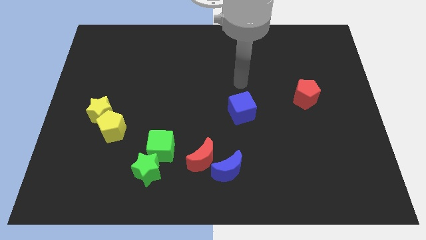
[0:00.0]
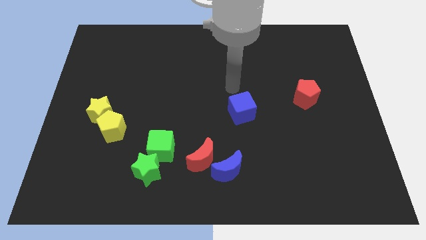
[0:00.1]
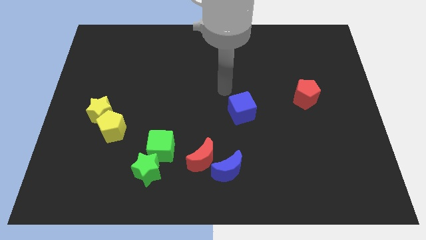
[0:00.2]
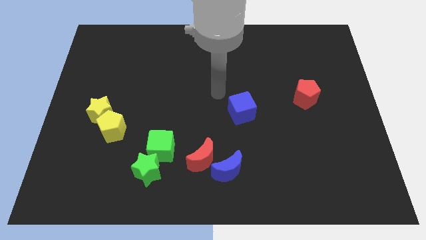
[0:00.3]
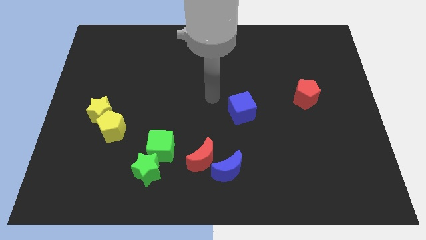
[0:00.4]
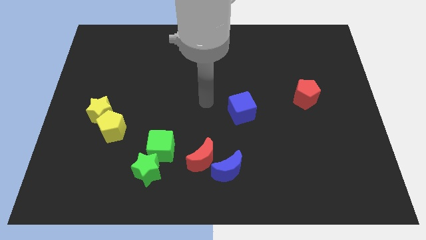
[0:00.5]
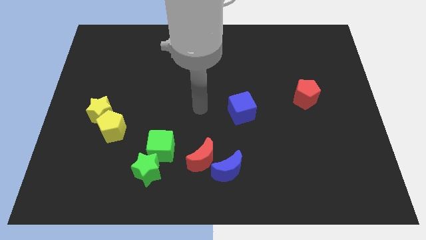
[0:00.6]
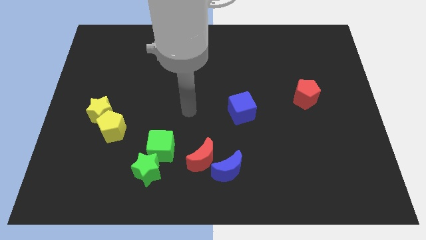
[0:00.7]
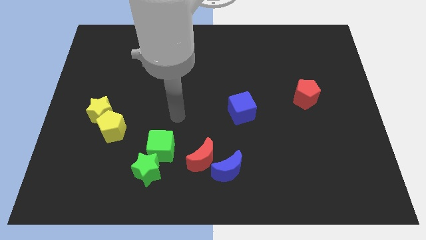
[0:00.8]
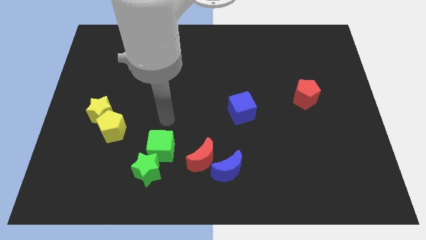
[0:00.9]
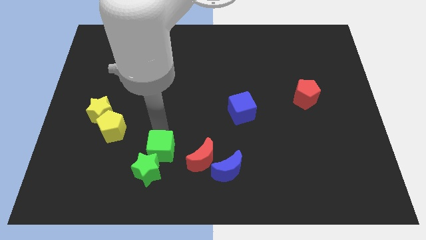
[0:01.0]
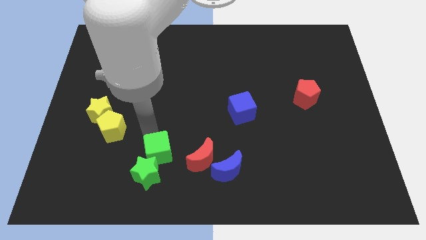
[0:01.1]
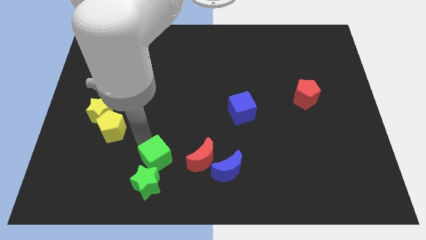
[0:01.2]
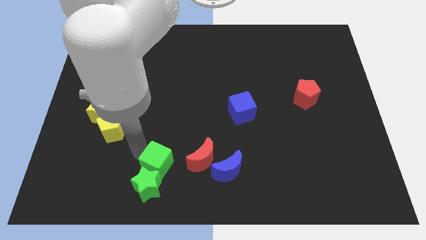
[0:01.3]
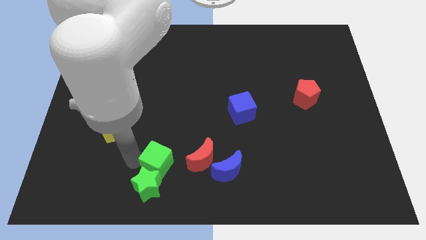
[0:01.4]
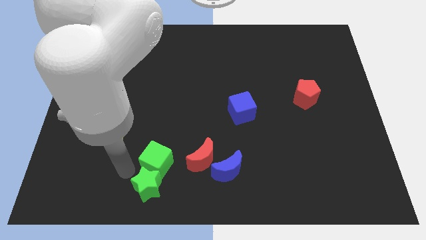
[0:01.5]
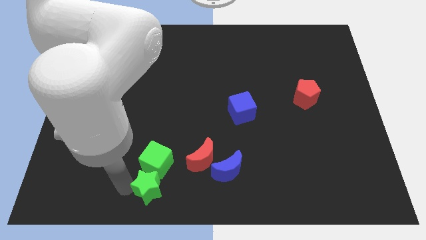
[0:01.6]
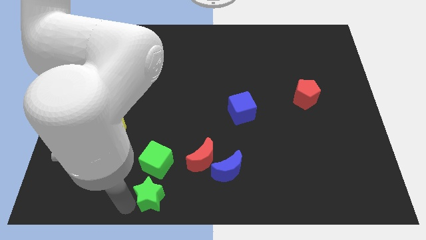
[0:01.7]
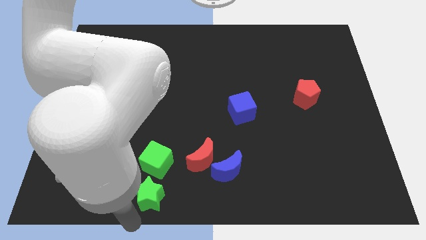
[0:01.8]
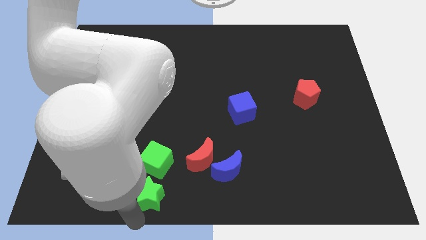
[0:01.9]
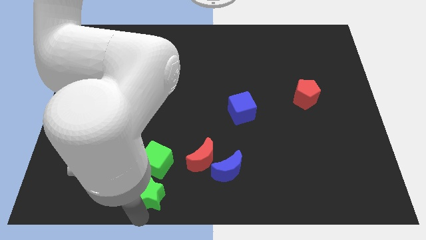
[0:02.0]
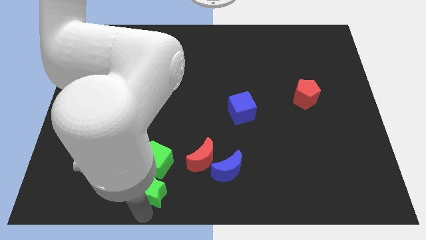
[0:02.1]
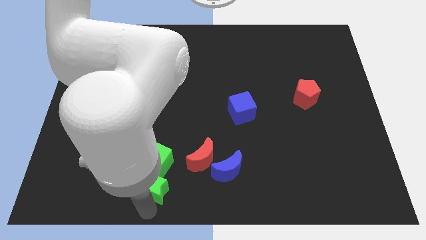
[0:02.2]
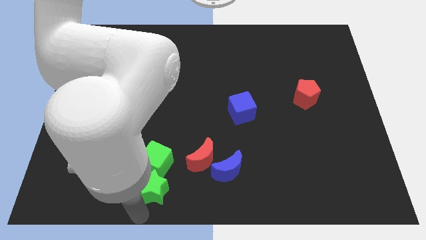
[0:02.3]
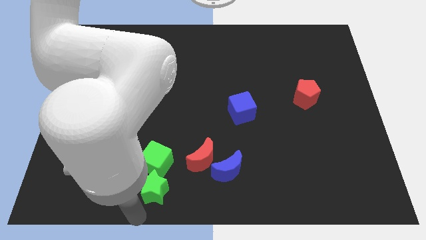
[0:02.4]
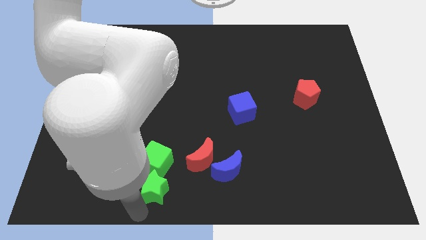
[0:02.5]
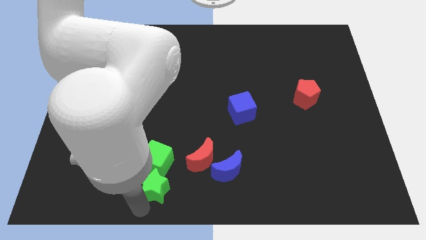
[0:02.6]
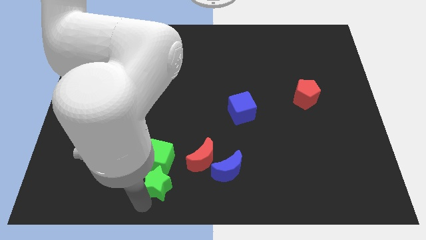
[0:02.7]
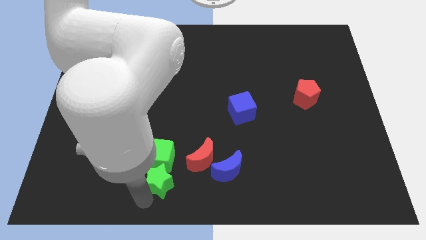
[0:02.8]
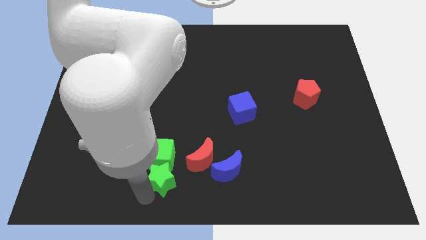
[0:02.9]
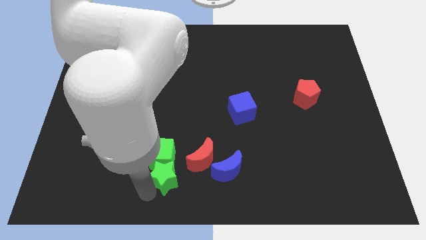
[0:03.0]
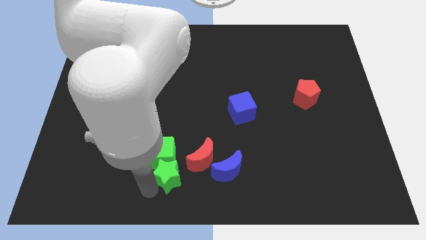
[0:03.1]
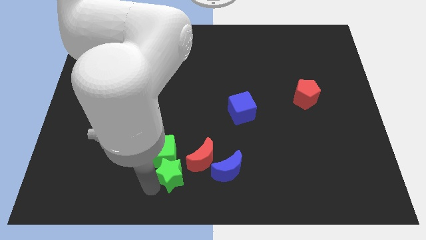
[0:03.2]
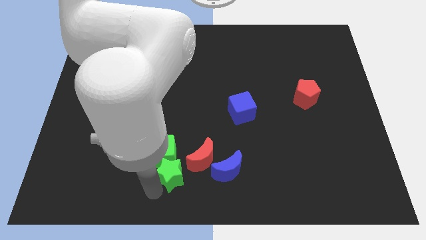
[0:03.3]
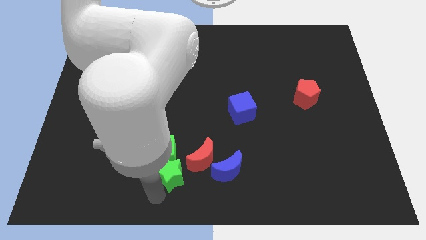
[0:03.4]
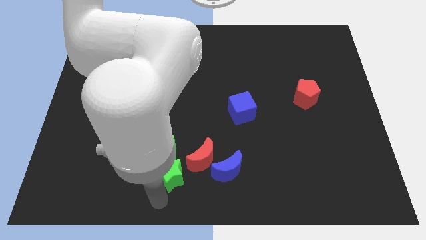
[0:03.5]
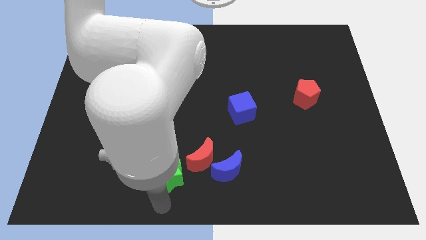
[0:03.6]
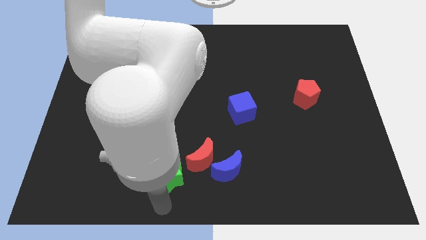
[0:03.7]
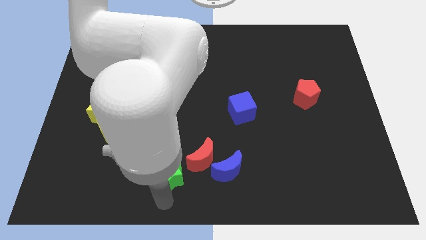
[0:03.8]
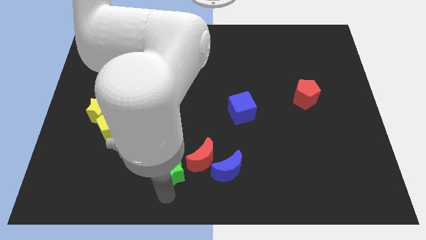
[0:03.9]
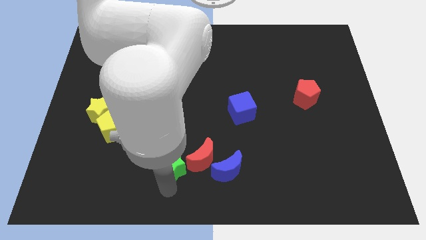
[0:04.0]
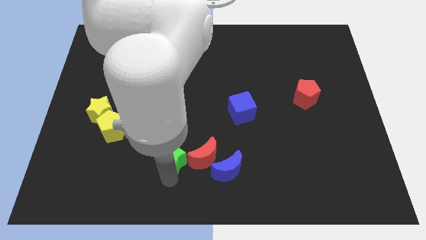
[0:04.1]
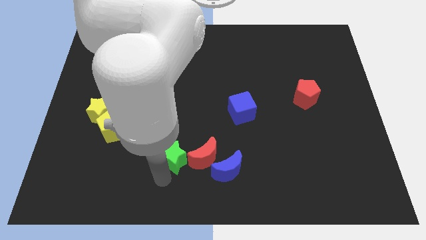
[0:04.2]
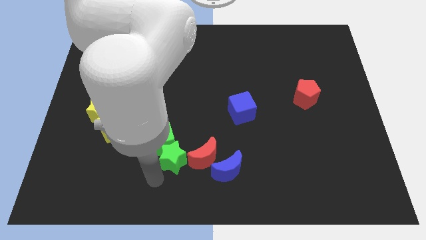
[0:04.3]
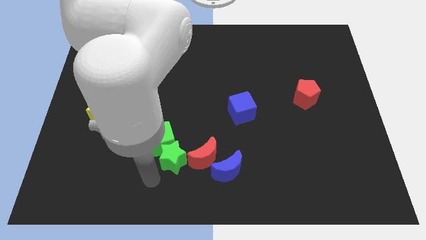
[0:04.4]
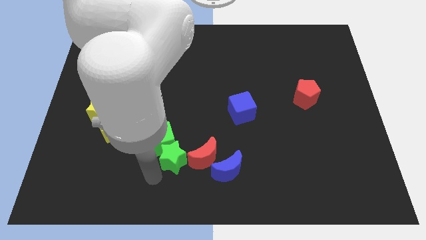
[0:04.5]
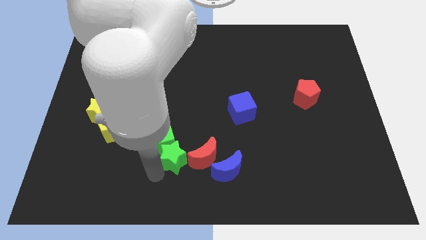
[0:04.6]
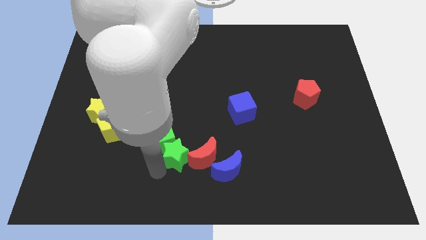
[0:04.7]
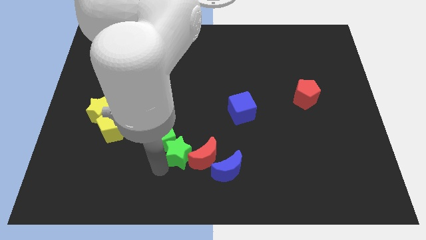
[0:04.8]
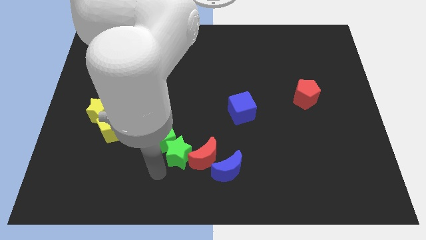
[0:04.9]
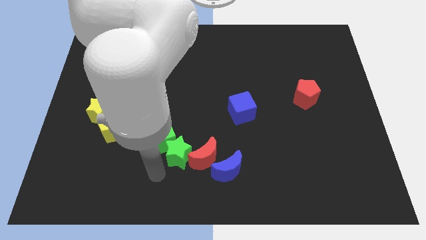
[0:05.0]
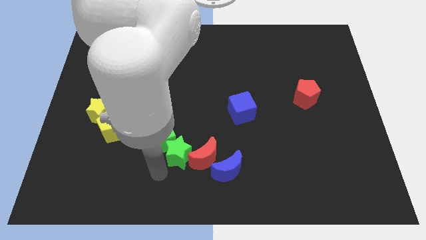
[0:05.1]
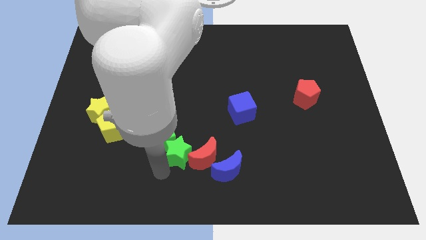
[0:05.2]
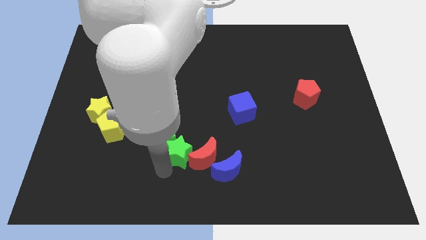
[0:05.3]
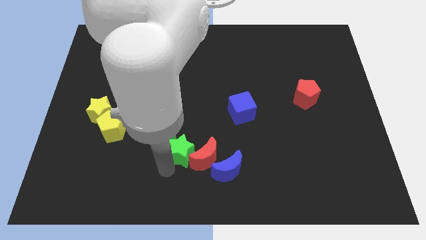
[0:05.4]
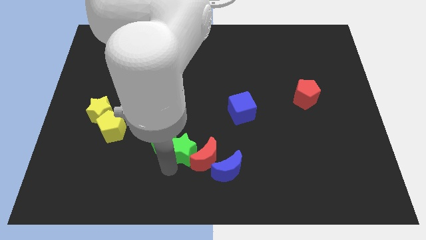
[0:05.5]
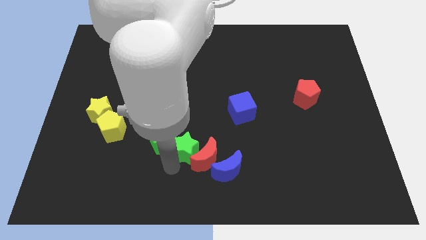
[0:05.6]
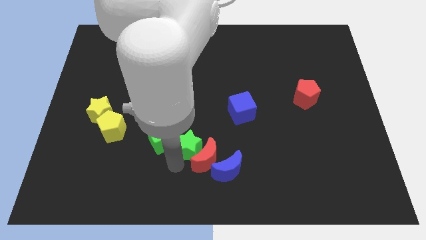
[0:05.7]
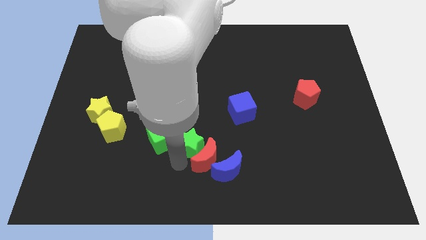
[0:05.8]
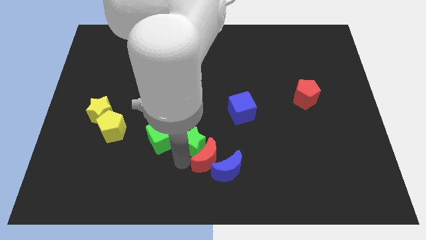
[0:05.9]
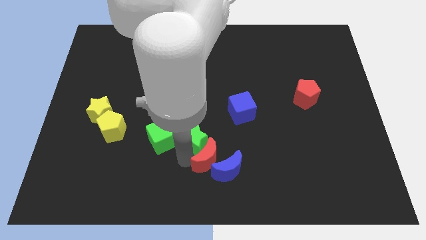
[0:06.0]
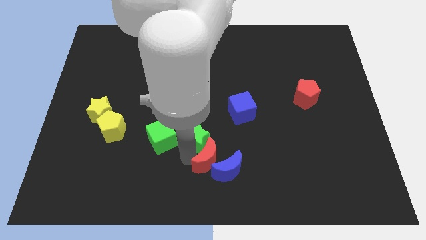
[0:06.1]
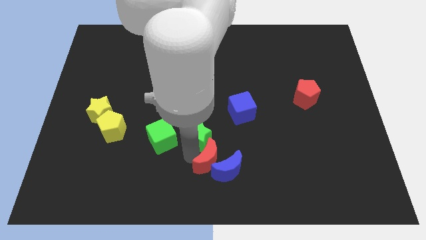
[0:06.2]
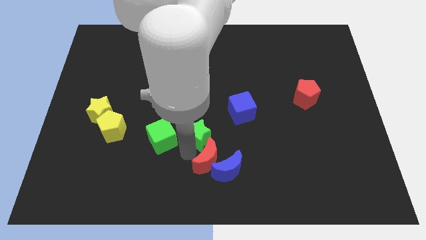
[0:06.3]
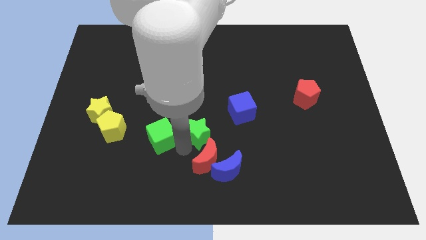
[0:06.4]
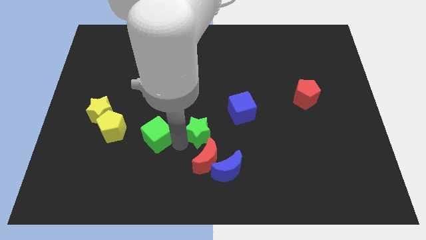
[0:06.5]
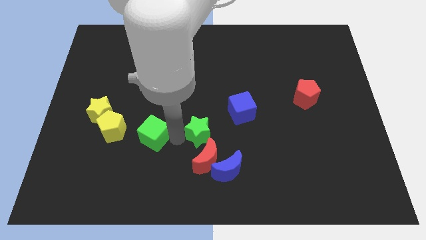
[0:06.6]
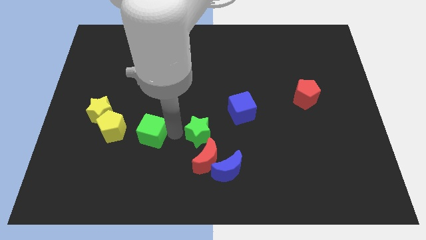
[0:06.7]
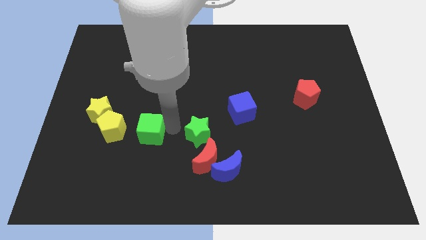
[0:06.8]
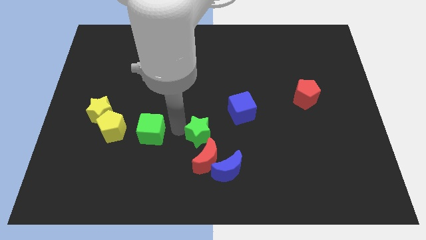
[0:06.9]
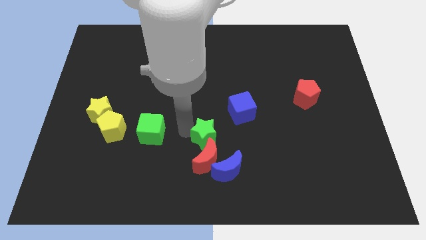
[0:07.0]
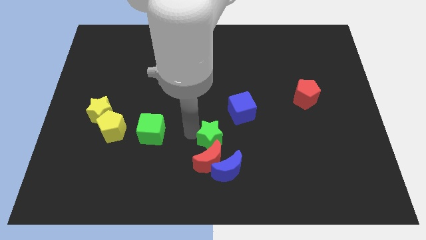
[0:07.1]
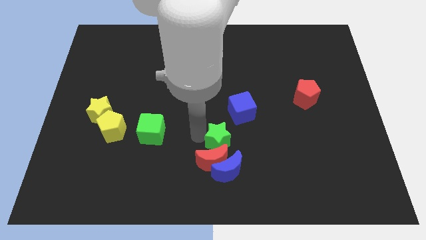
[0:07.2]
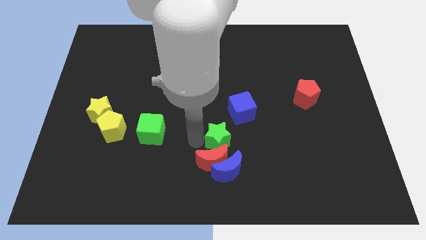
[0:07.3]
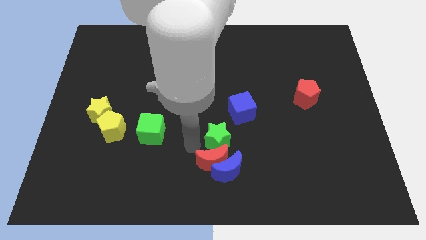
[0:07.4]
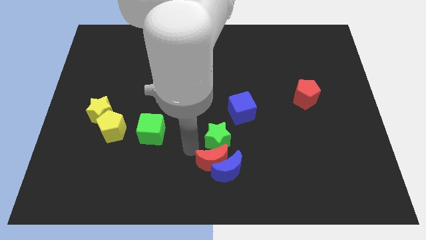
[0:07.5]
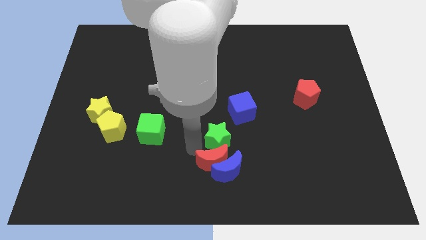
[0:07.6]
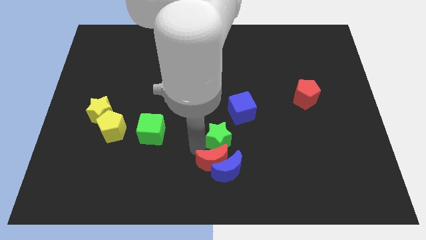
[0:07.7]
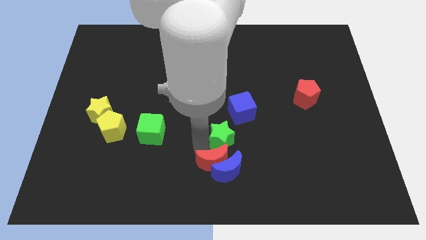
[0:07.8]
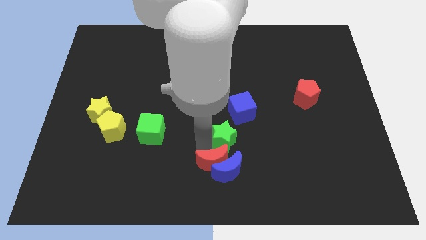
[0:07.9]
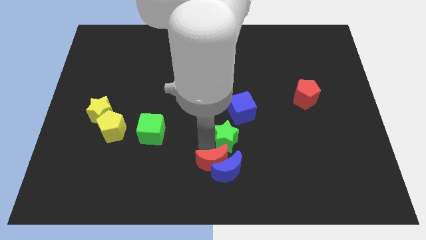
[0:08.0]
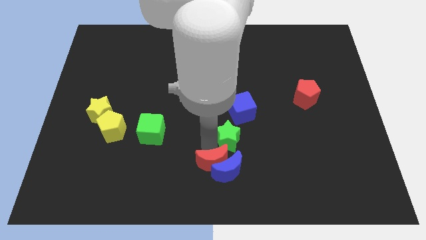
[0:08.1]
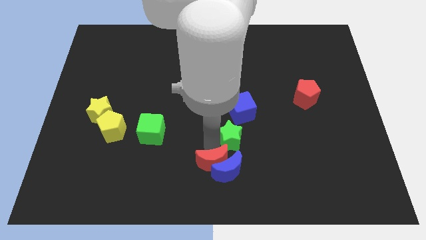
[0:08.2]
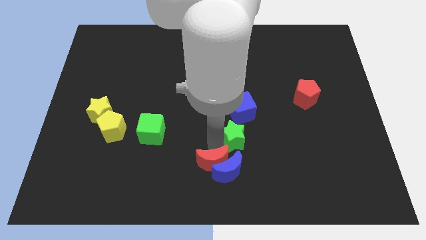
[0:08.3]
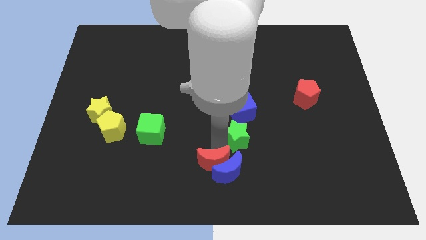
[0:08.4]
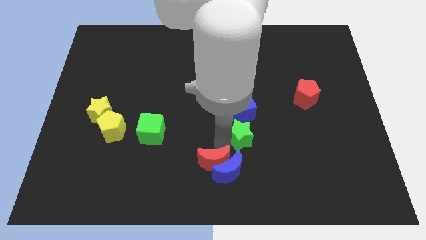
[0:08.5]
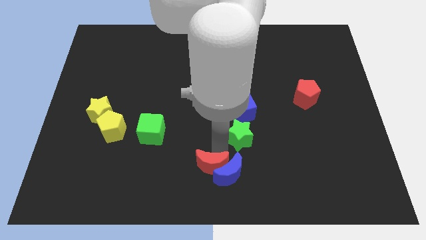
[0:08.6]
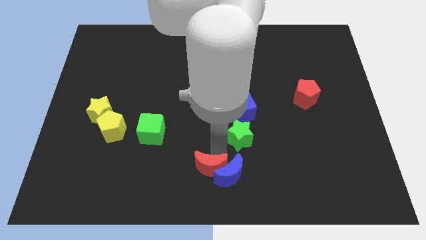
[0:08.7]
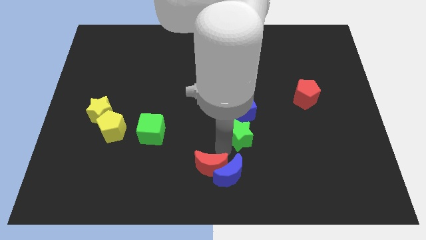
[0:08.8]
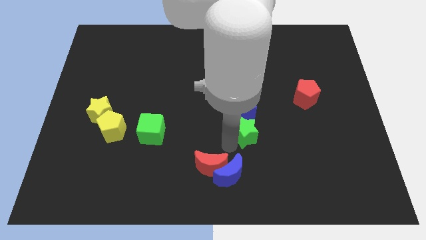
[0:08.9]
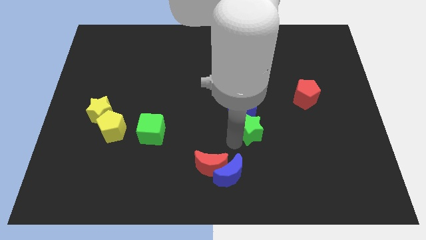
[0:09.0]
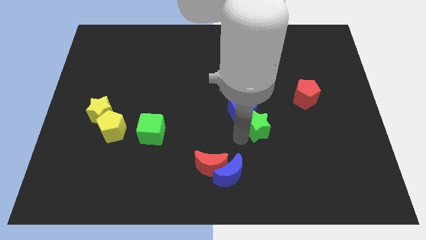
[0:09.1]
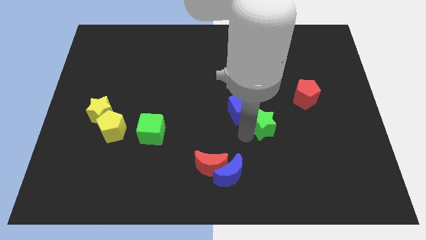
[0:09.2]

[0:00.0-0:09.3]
slide the green star to the right side of the blue cube
